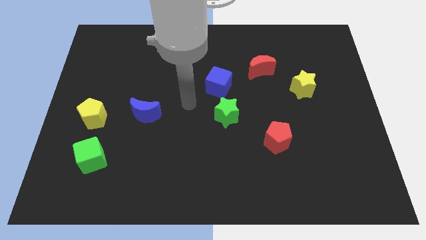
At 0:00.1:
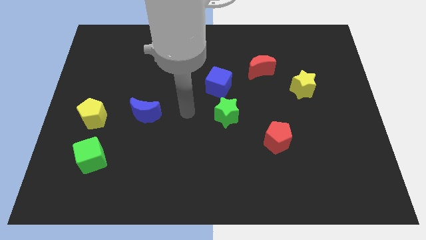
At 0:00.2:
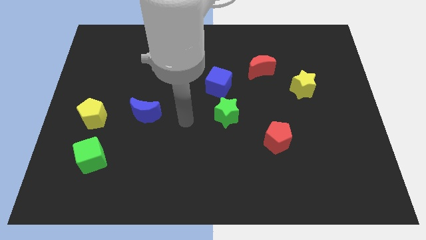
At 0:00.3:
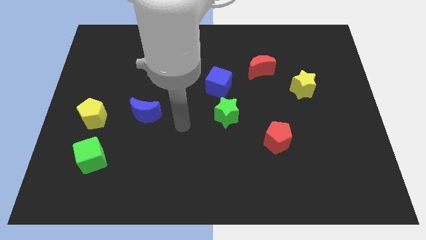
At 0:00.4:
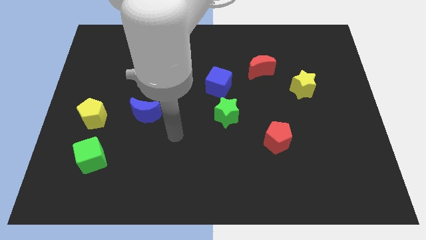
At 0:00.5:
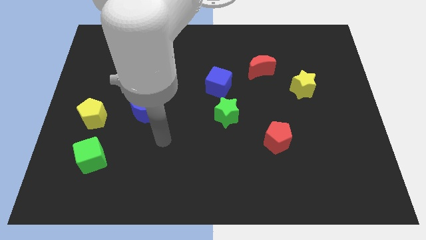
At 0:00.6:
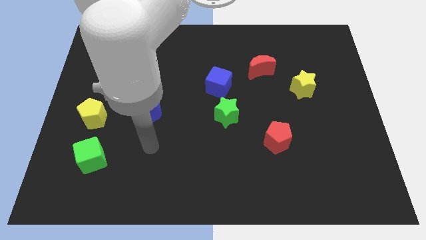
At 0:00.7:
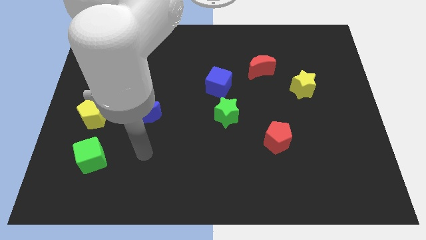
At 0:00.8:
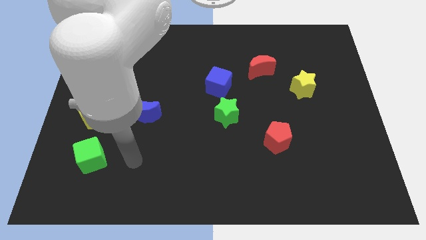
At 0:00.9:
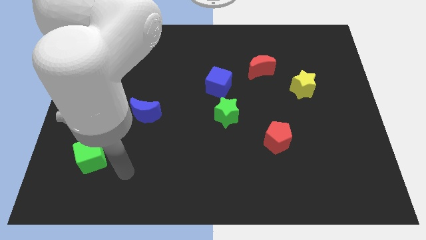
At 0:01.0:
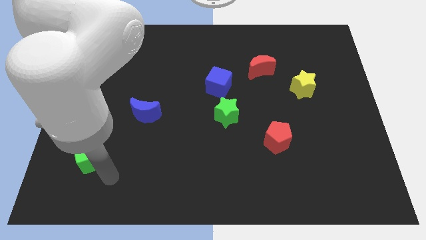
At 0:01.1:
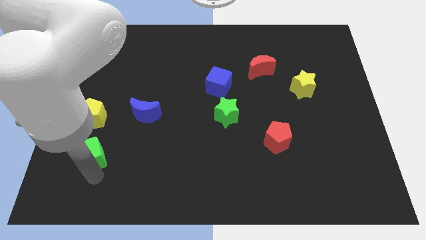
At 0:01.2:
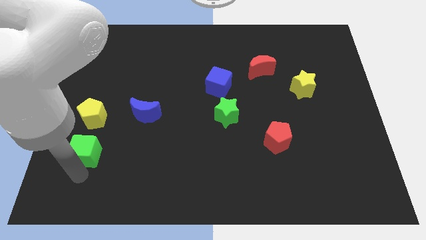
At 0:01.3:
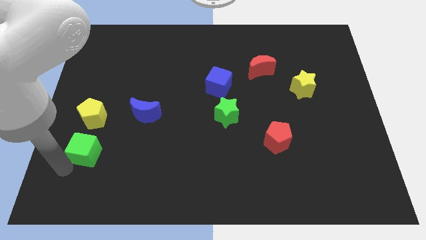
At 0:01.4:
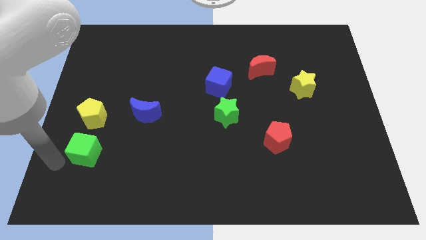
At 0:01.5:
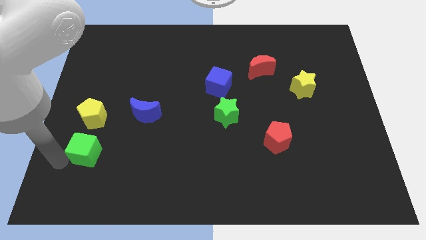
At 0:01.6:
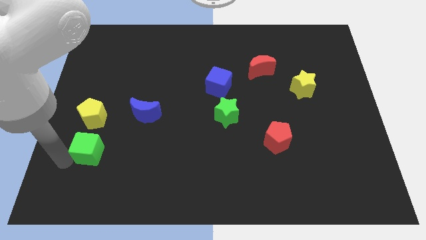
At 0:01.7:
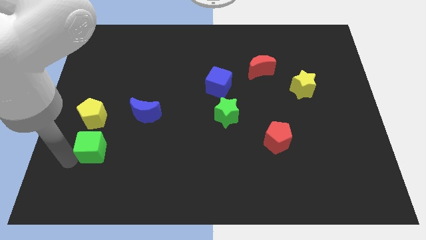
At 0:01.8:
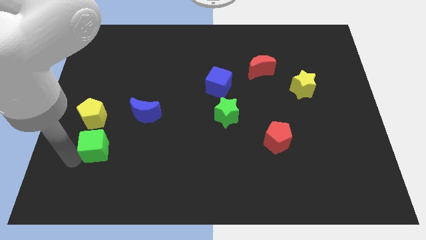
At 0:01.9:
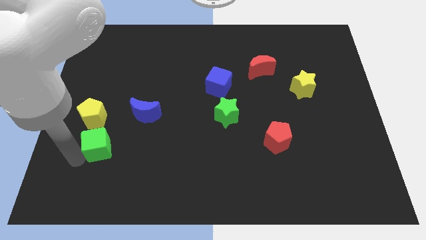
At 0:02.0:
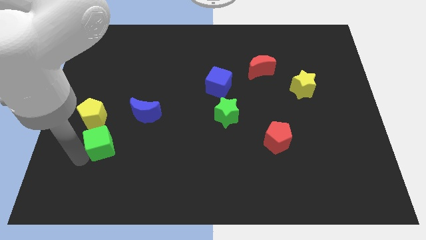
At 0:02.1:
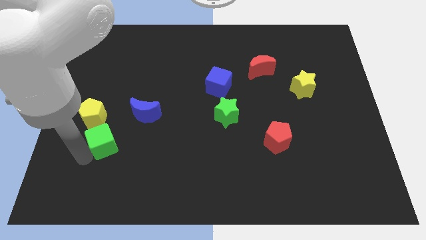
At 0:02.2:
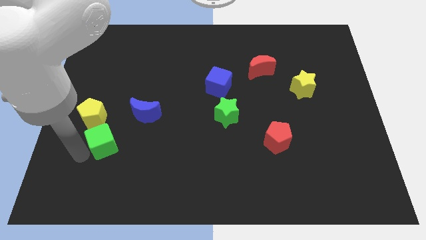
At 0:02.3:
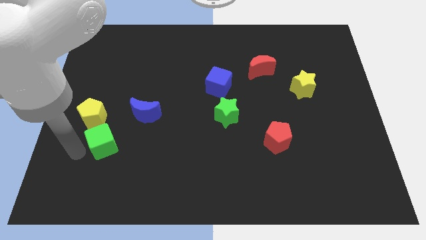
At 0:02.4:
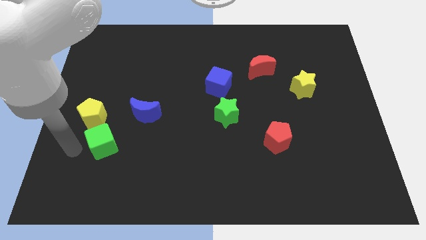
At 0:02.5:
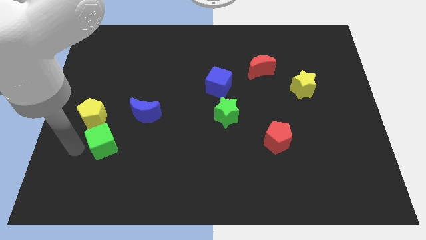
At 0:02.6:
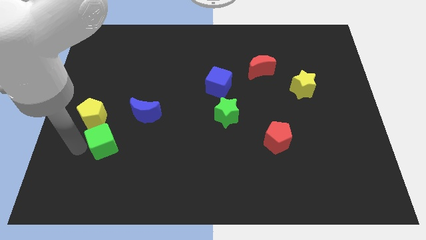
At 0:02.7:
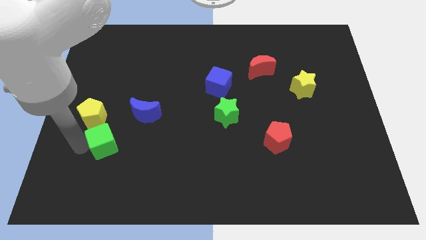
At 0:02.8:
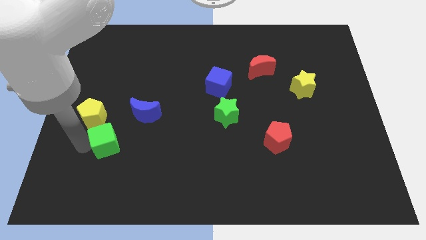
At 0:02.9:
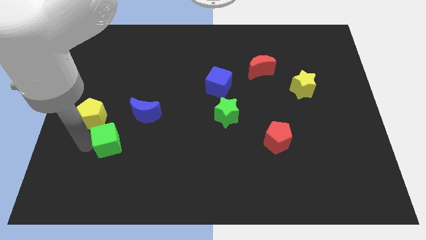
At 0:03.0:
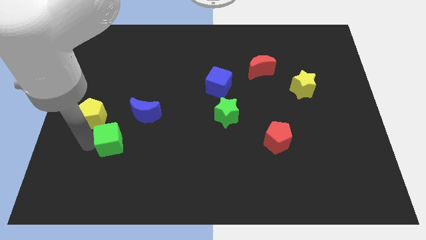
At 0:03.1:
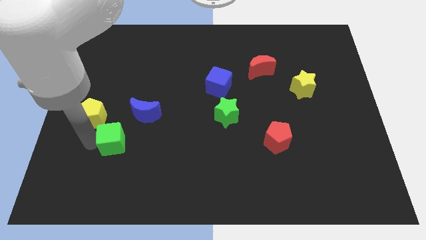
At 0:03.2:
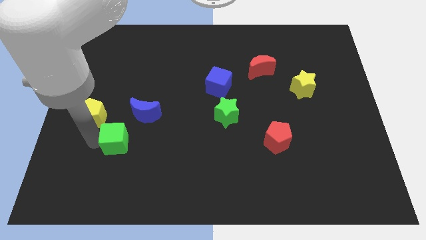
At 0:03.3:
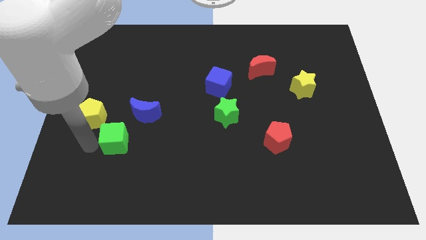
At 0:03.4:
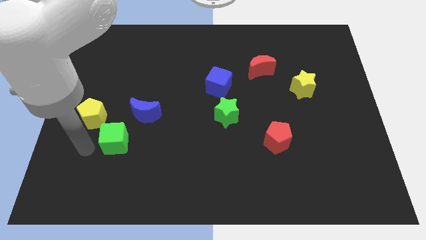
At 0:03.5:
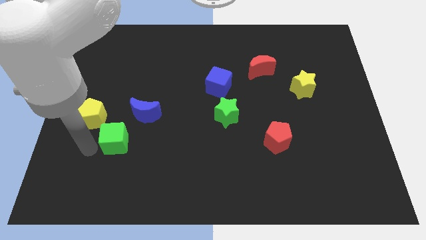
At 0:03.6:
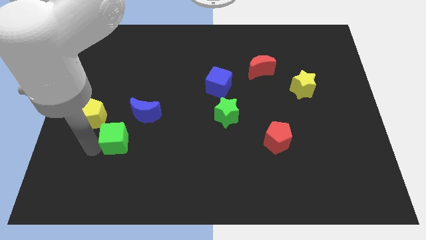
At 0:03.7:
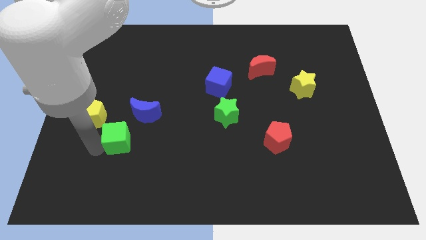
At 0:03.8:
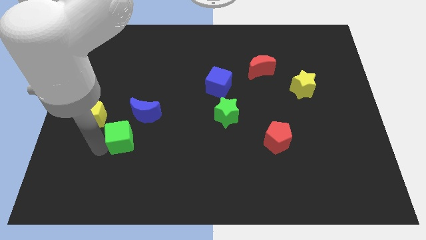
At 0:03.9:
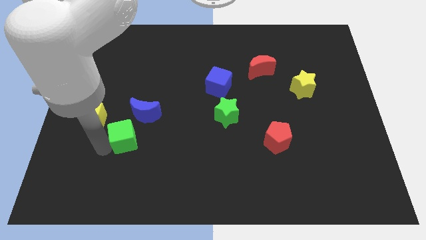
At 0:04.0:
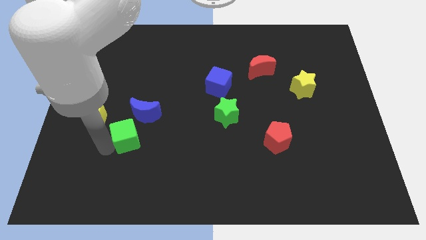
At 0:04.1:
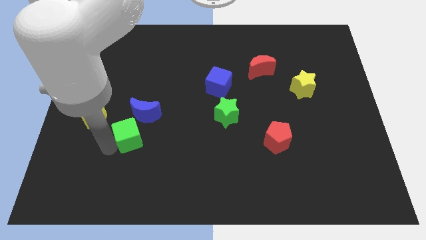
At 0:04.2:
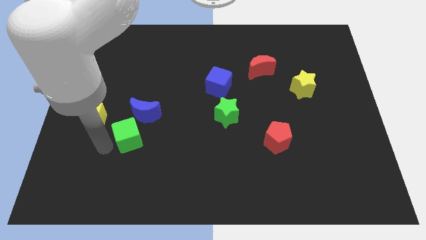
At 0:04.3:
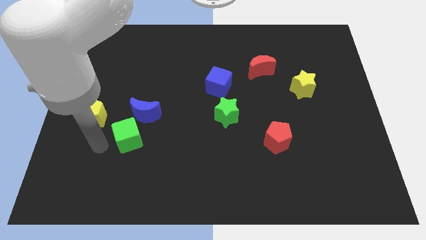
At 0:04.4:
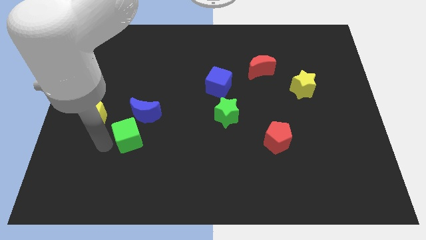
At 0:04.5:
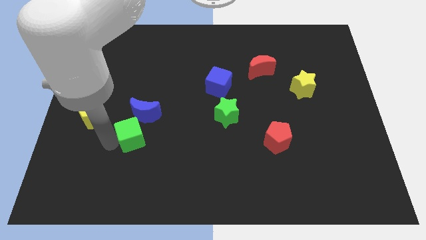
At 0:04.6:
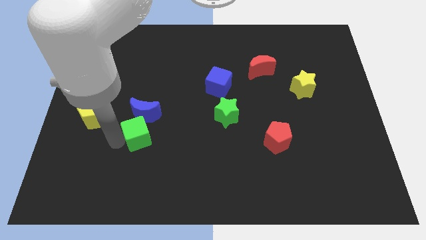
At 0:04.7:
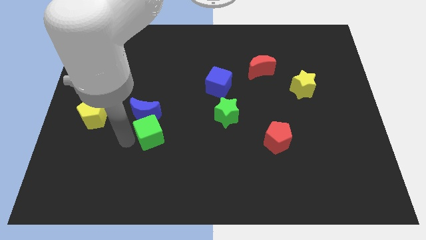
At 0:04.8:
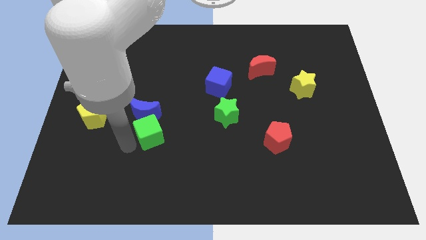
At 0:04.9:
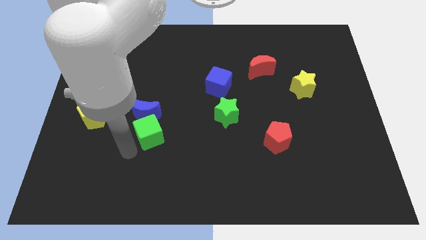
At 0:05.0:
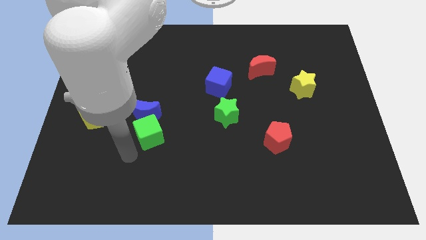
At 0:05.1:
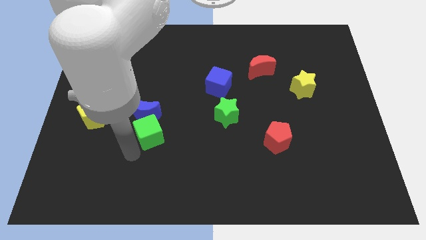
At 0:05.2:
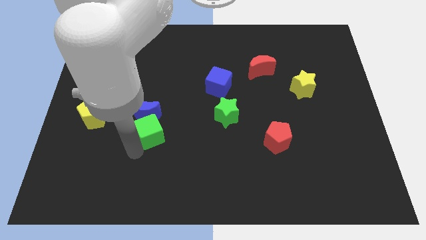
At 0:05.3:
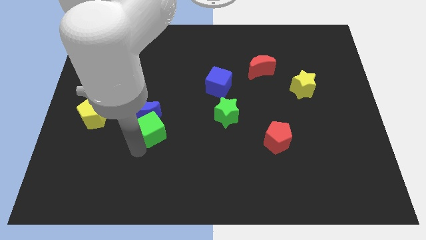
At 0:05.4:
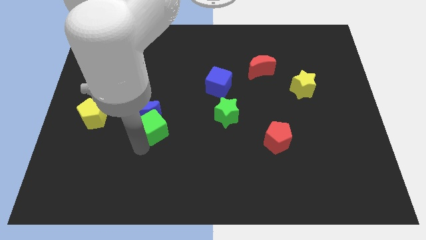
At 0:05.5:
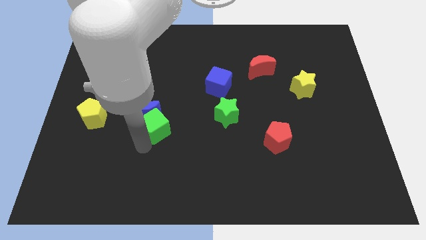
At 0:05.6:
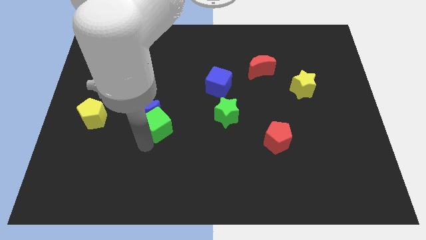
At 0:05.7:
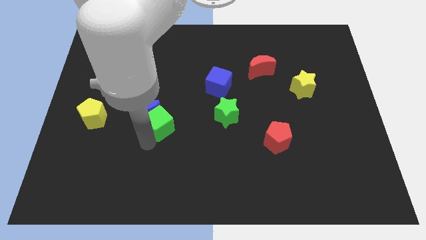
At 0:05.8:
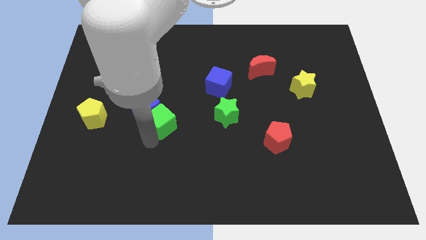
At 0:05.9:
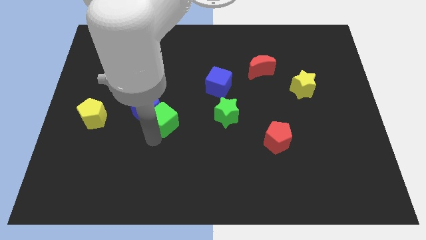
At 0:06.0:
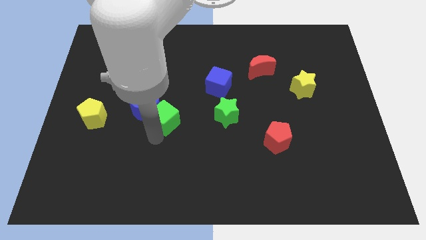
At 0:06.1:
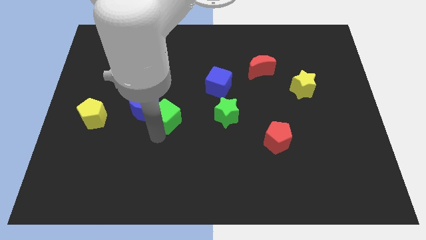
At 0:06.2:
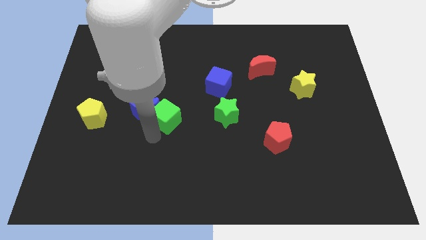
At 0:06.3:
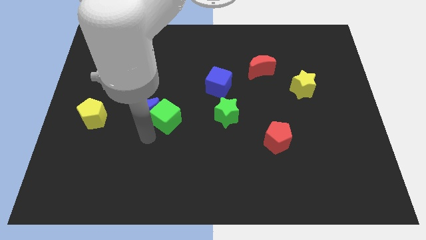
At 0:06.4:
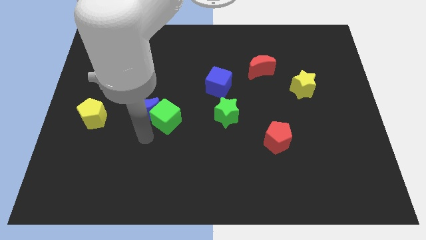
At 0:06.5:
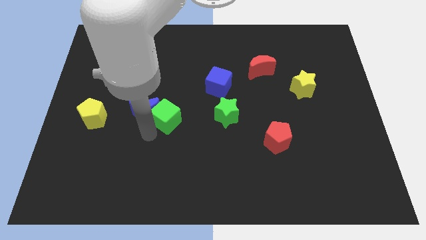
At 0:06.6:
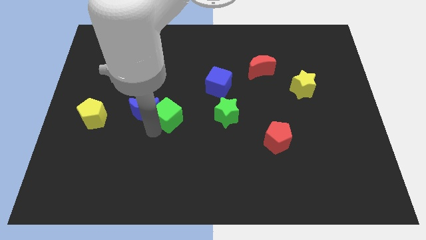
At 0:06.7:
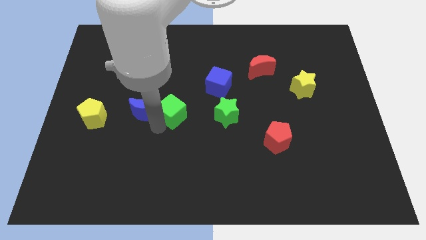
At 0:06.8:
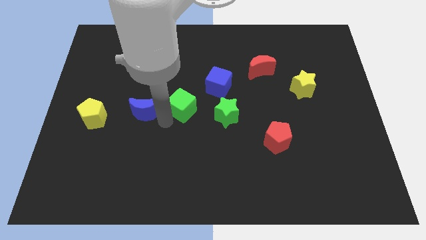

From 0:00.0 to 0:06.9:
push the green cube upwards and to the right

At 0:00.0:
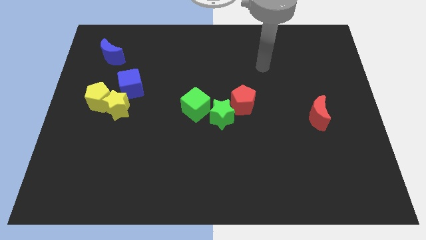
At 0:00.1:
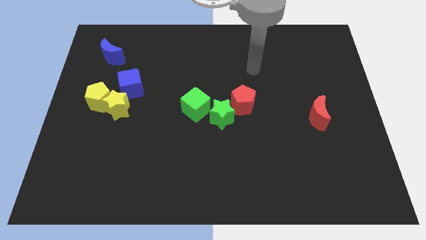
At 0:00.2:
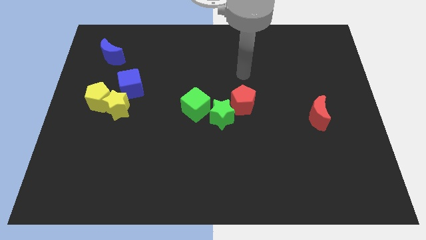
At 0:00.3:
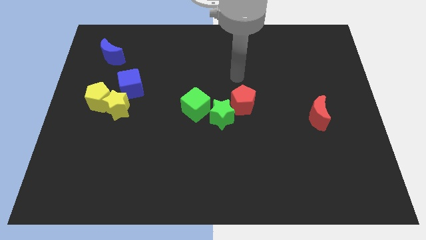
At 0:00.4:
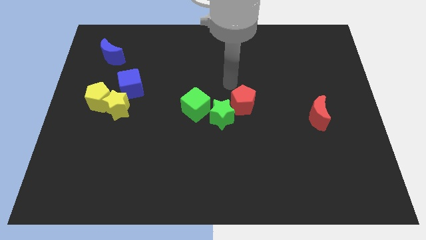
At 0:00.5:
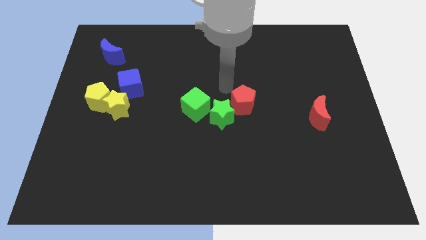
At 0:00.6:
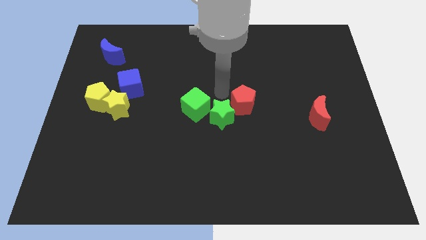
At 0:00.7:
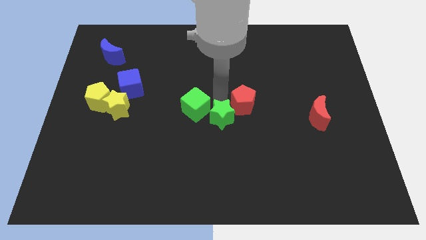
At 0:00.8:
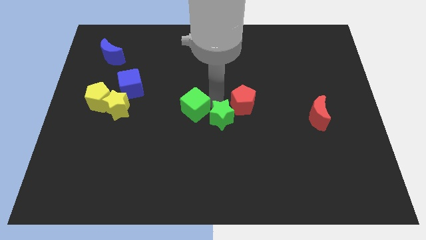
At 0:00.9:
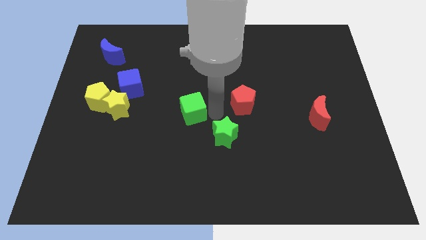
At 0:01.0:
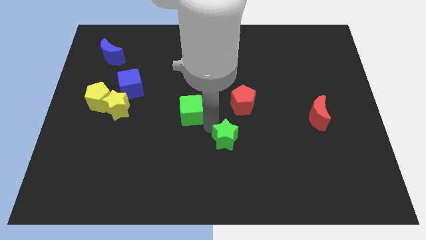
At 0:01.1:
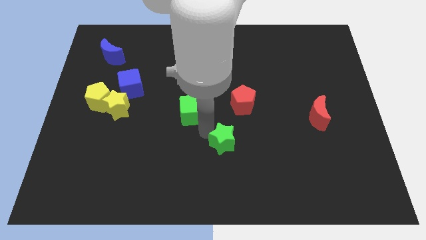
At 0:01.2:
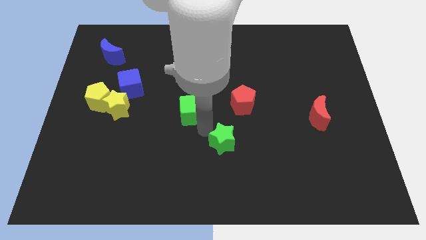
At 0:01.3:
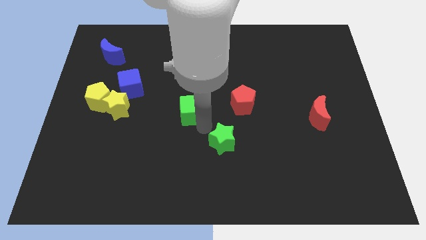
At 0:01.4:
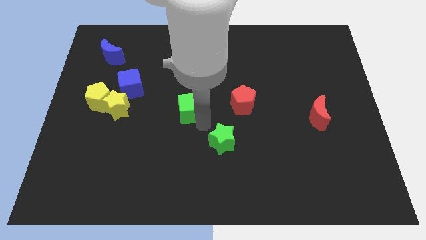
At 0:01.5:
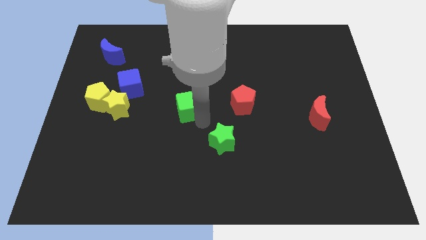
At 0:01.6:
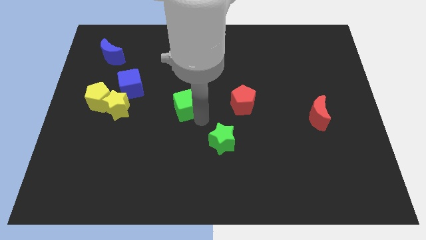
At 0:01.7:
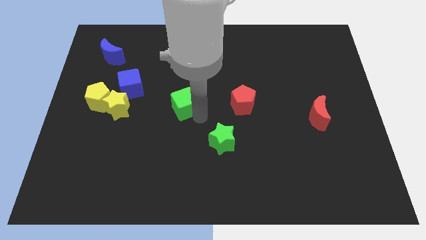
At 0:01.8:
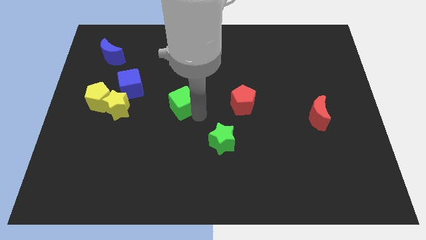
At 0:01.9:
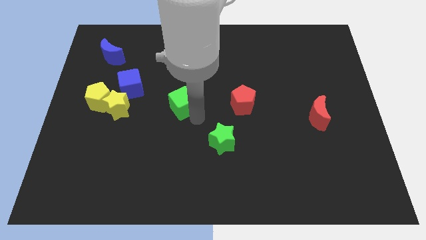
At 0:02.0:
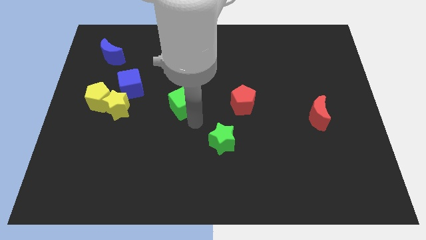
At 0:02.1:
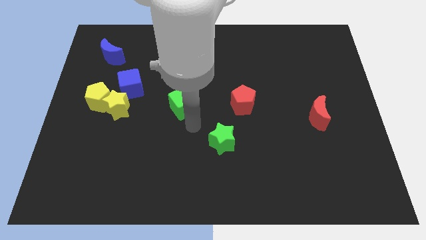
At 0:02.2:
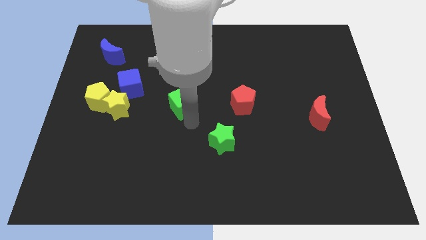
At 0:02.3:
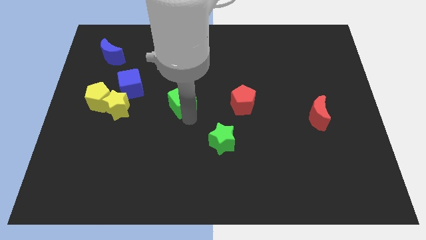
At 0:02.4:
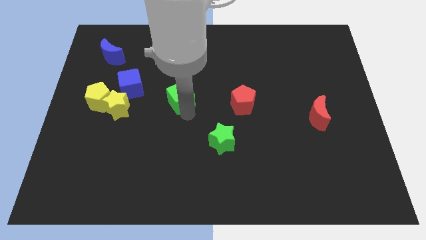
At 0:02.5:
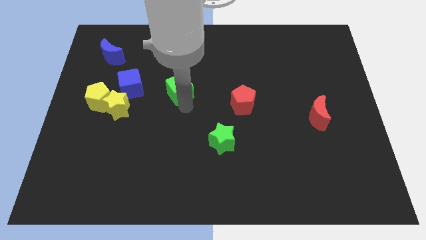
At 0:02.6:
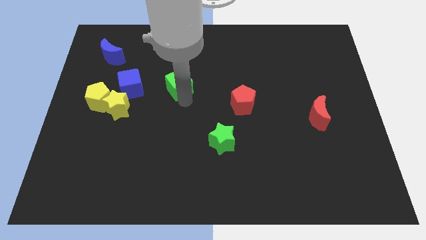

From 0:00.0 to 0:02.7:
move the green cube somewhat up and left diagonally
